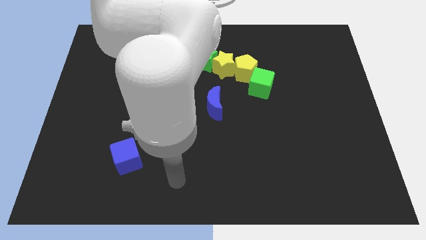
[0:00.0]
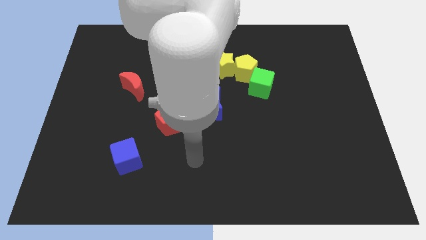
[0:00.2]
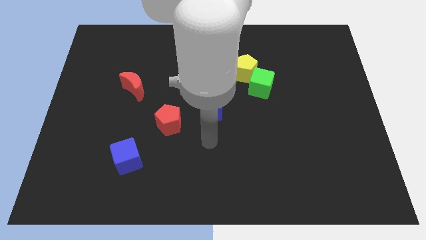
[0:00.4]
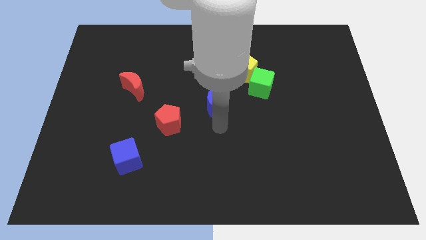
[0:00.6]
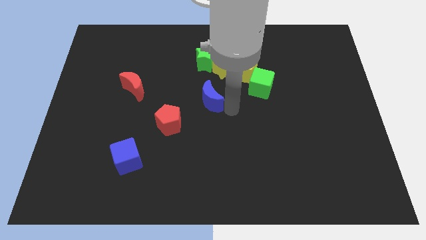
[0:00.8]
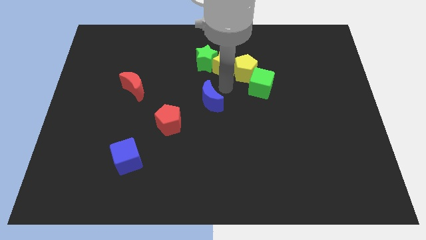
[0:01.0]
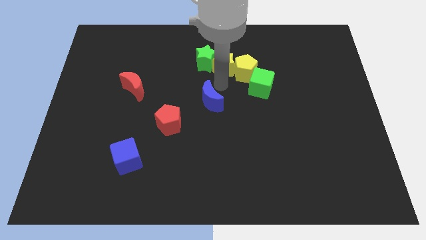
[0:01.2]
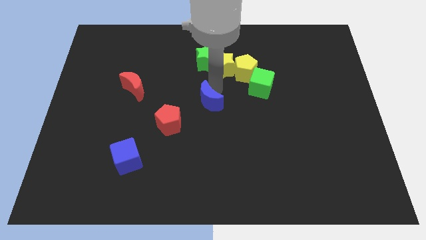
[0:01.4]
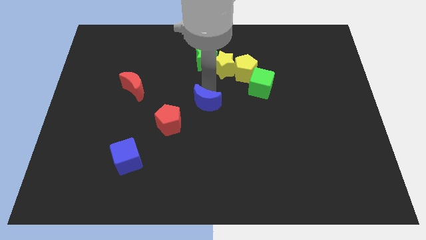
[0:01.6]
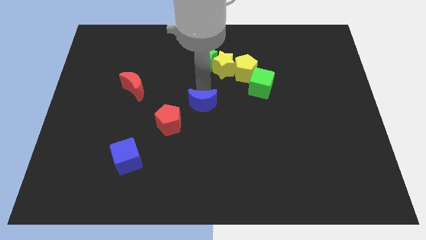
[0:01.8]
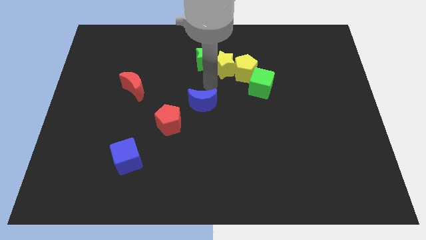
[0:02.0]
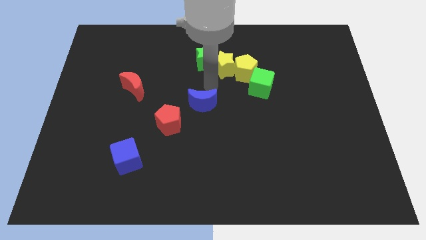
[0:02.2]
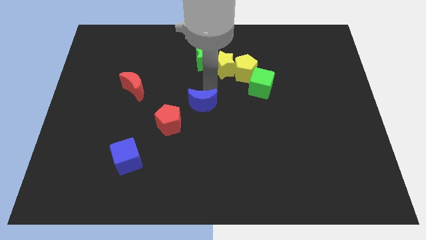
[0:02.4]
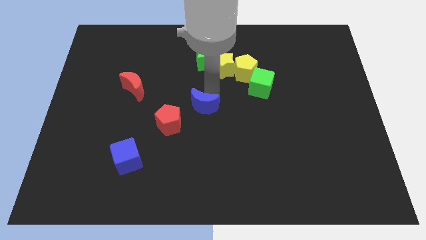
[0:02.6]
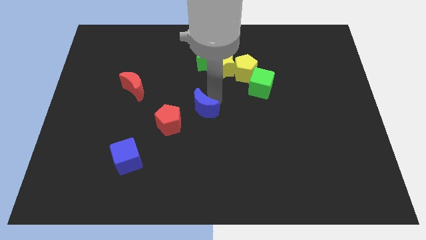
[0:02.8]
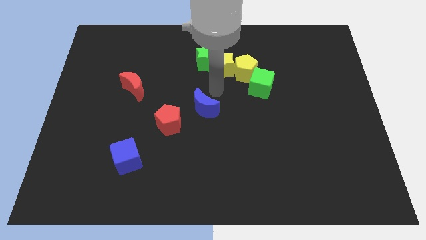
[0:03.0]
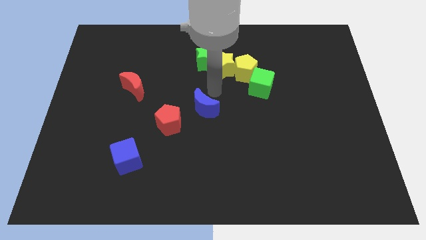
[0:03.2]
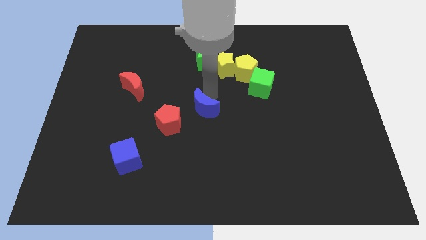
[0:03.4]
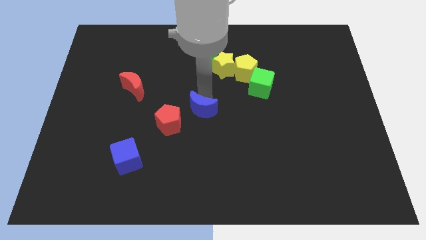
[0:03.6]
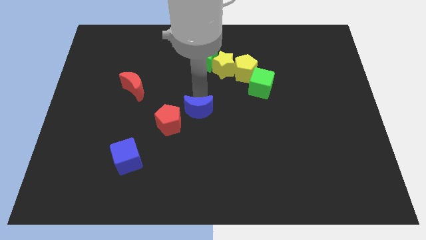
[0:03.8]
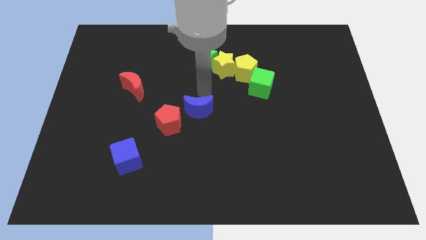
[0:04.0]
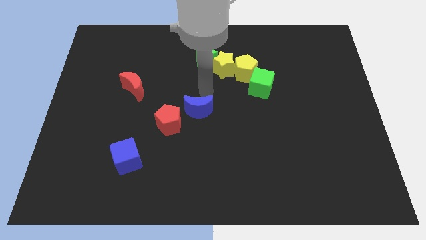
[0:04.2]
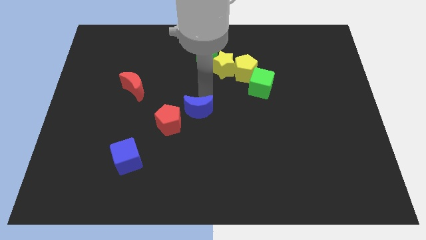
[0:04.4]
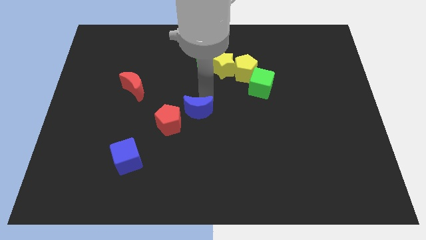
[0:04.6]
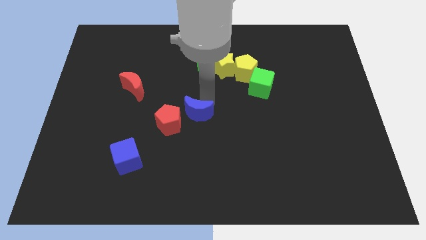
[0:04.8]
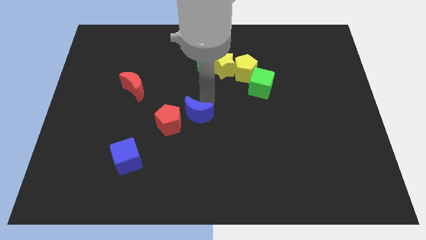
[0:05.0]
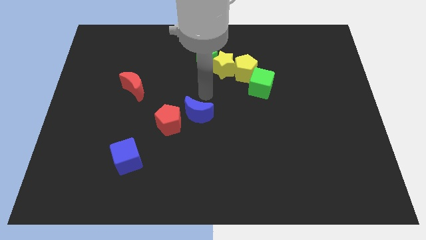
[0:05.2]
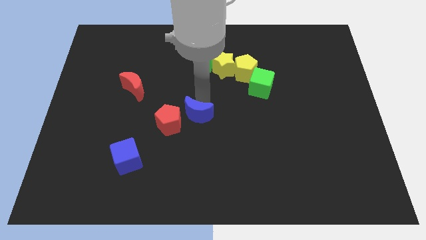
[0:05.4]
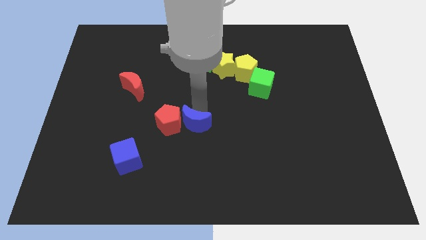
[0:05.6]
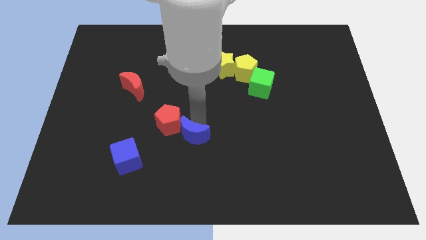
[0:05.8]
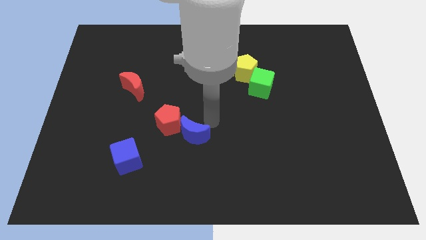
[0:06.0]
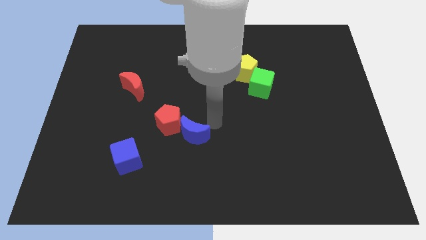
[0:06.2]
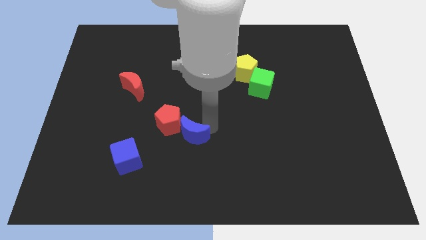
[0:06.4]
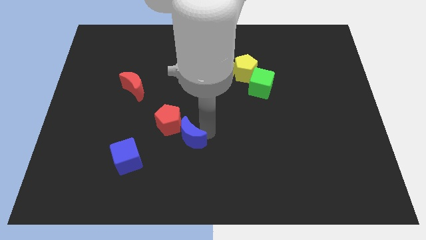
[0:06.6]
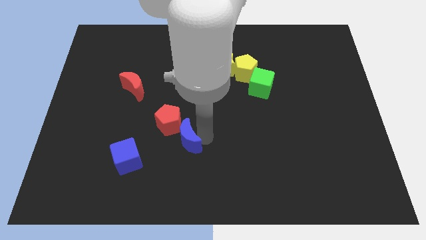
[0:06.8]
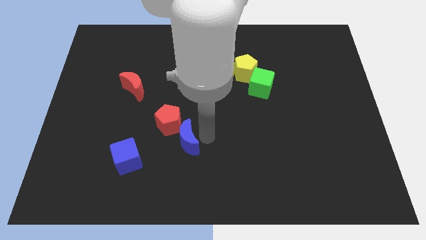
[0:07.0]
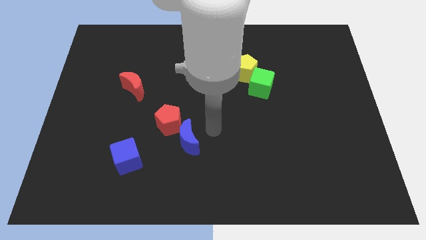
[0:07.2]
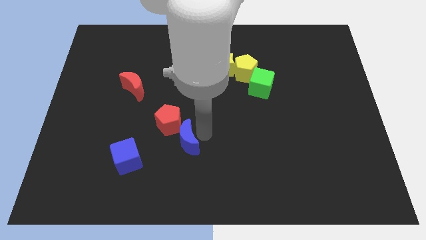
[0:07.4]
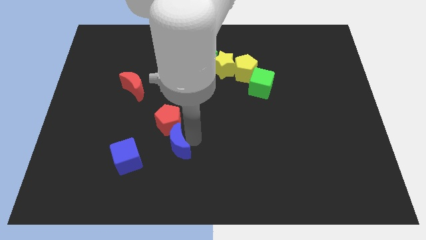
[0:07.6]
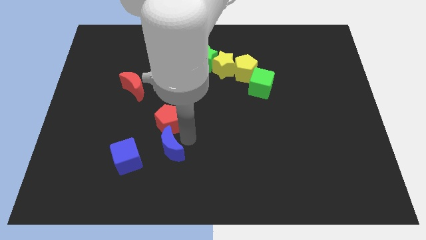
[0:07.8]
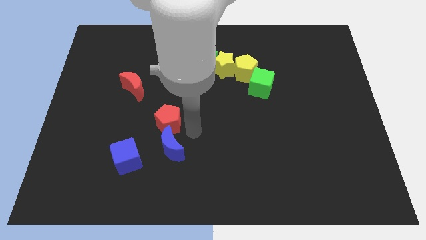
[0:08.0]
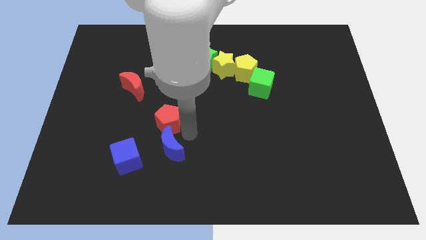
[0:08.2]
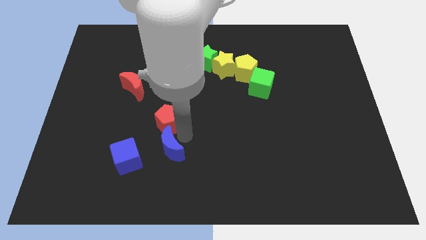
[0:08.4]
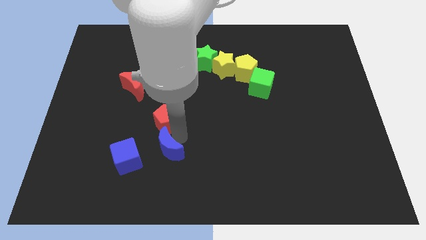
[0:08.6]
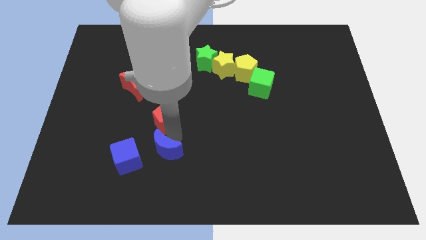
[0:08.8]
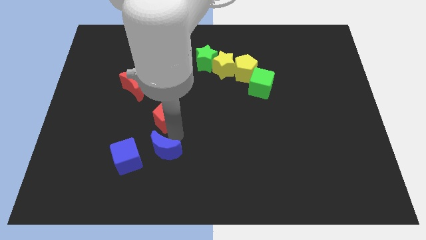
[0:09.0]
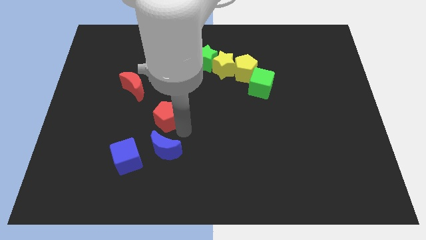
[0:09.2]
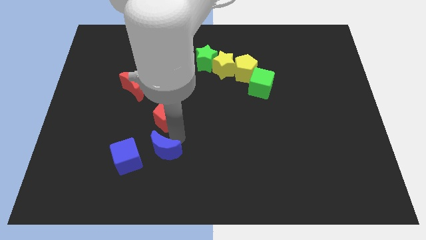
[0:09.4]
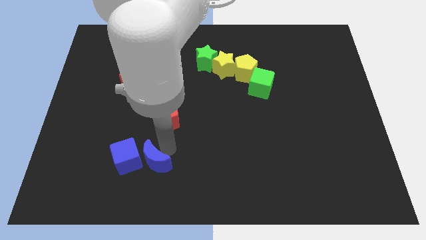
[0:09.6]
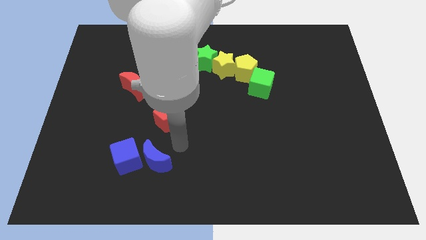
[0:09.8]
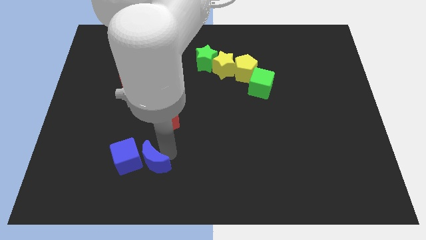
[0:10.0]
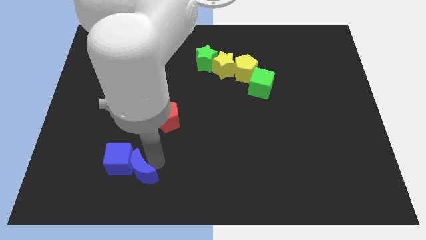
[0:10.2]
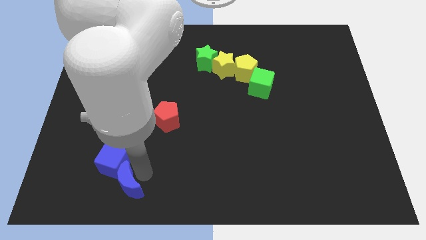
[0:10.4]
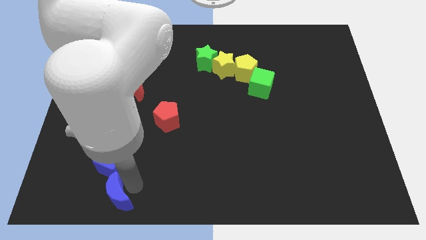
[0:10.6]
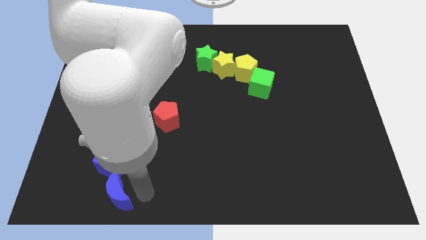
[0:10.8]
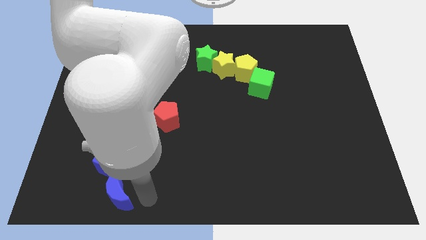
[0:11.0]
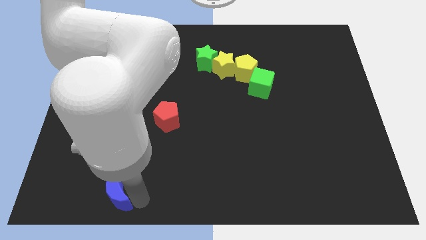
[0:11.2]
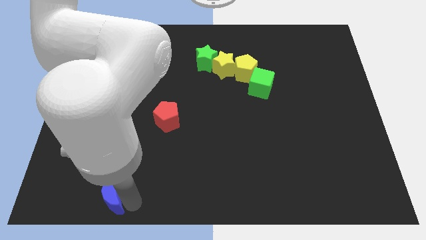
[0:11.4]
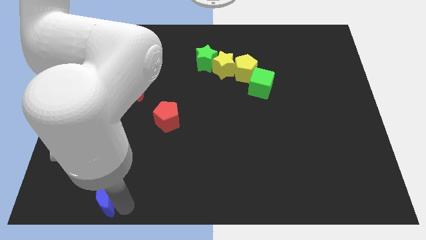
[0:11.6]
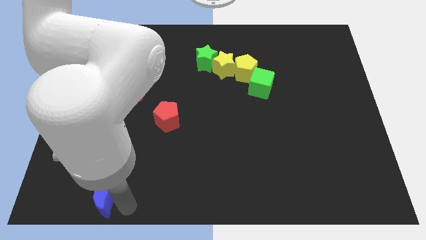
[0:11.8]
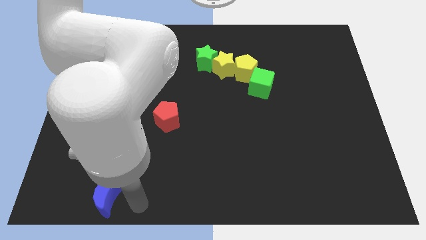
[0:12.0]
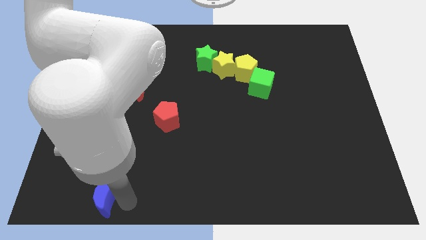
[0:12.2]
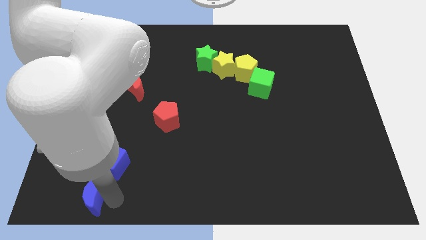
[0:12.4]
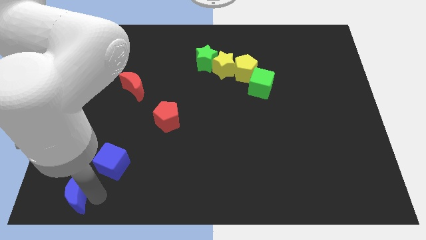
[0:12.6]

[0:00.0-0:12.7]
slide the blue moon to the bottom left of the board

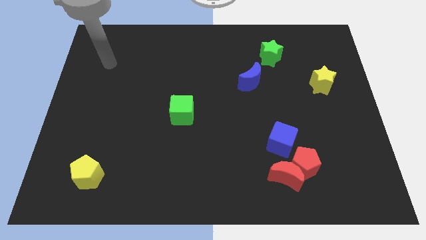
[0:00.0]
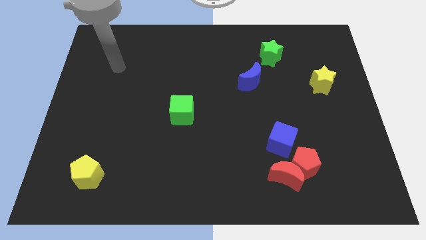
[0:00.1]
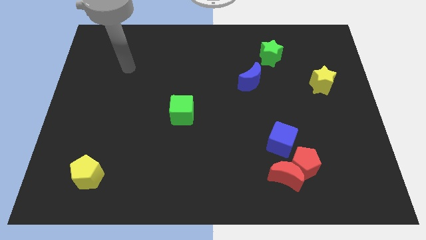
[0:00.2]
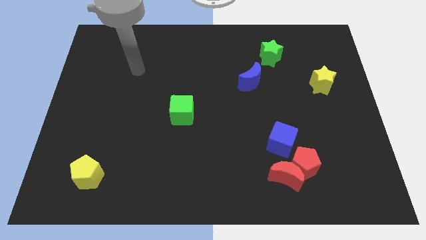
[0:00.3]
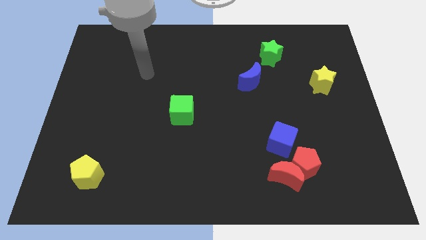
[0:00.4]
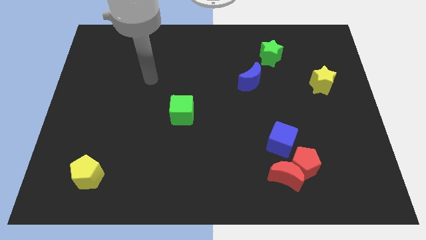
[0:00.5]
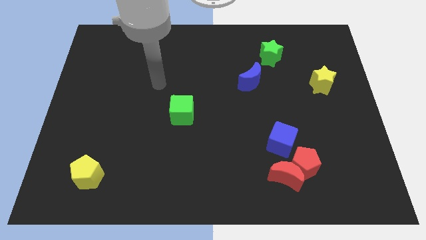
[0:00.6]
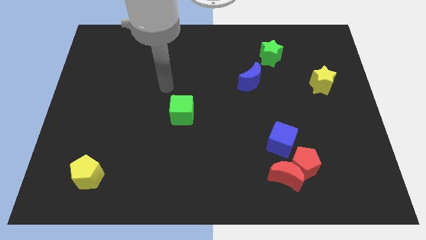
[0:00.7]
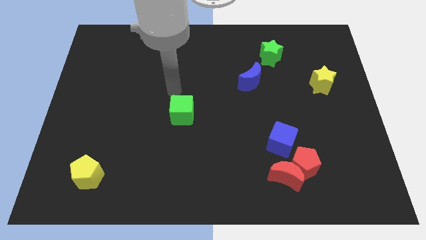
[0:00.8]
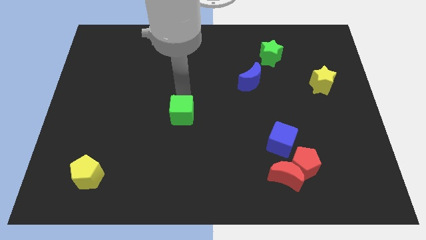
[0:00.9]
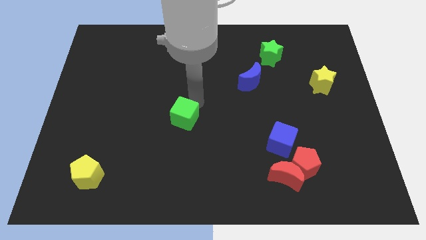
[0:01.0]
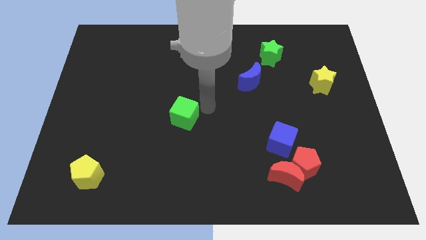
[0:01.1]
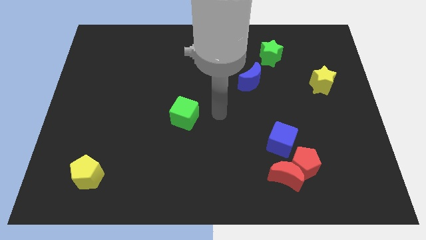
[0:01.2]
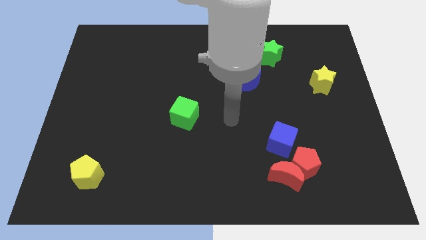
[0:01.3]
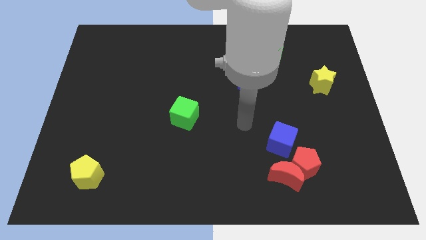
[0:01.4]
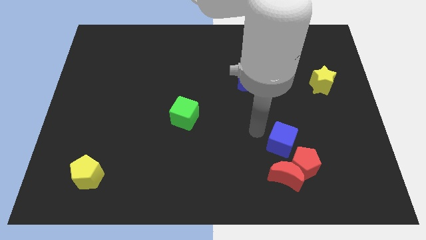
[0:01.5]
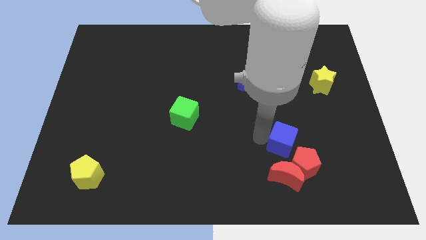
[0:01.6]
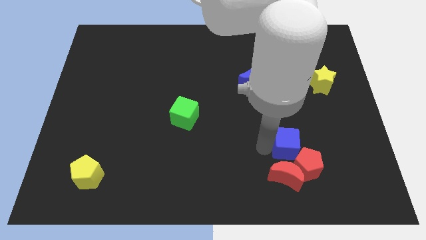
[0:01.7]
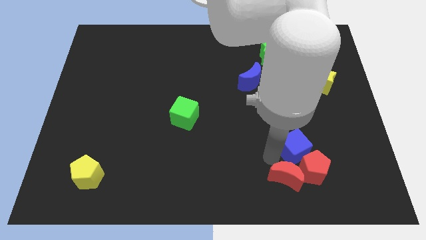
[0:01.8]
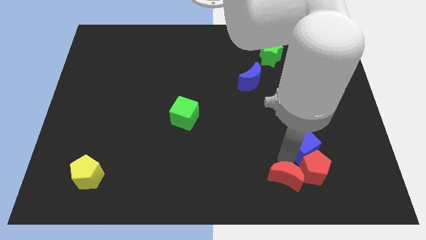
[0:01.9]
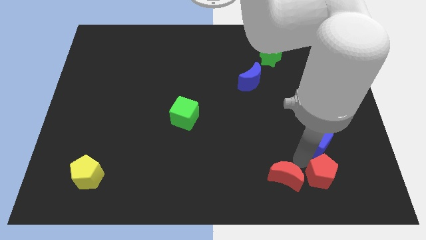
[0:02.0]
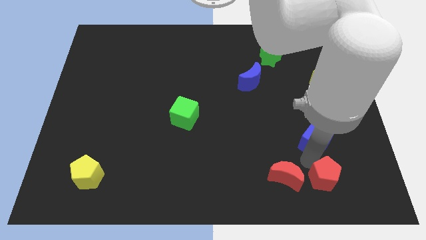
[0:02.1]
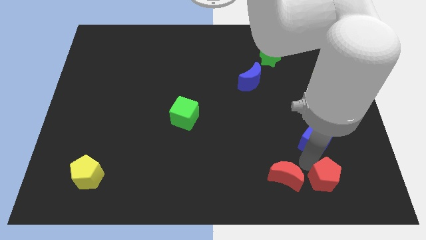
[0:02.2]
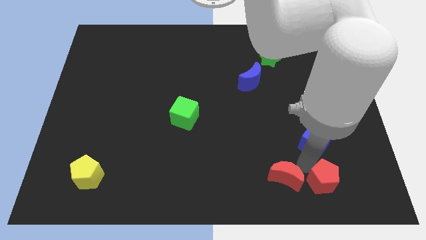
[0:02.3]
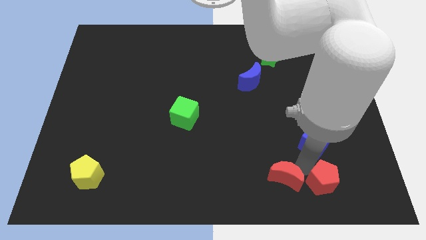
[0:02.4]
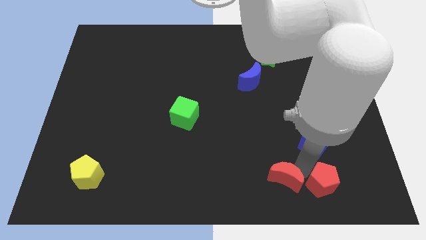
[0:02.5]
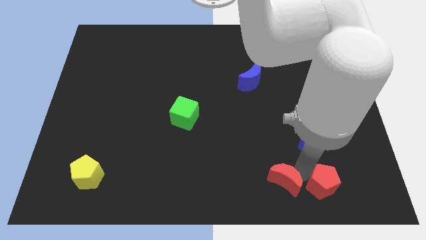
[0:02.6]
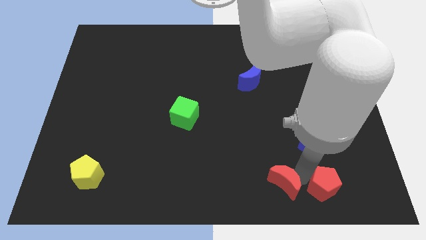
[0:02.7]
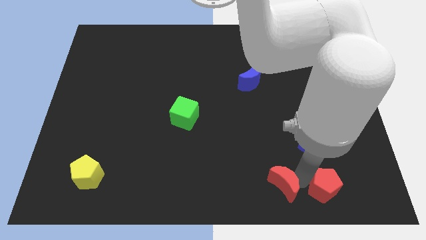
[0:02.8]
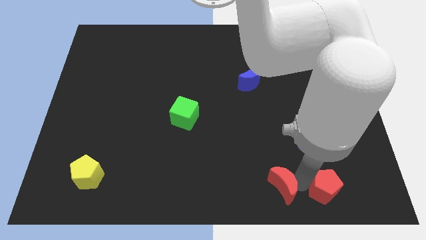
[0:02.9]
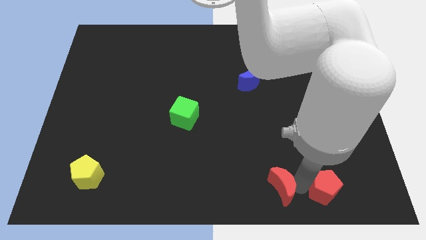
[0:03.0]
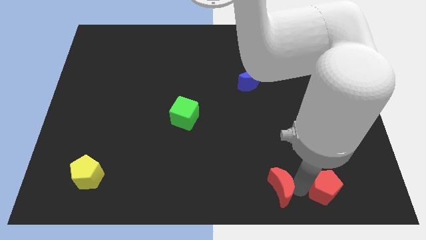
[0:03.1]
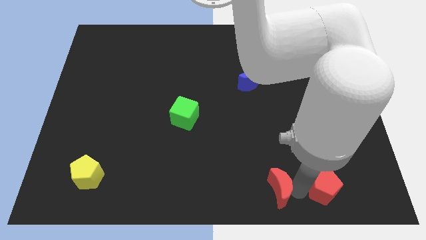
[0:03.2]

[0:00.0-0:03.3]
move the red moon to the bottom side
